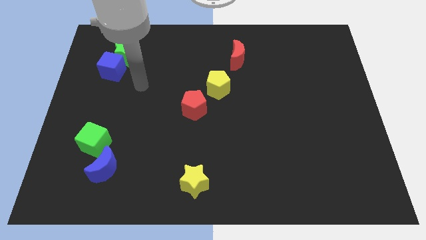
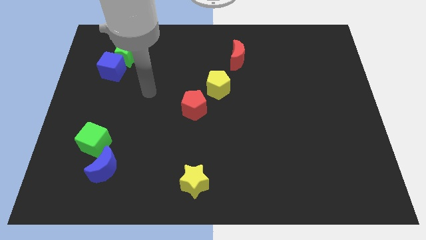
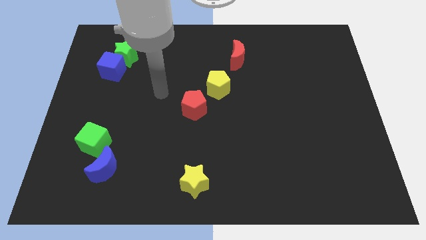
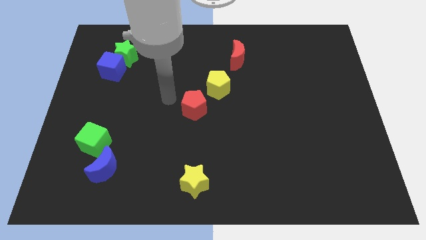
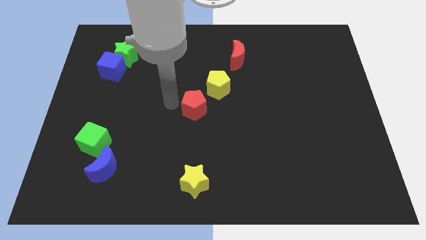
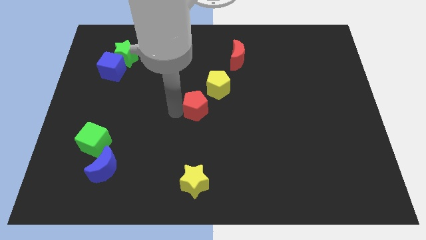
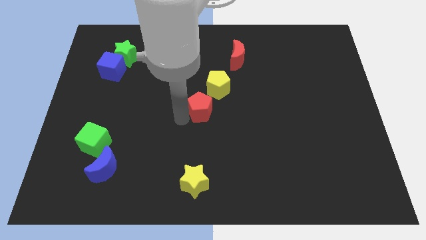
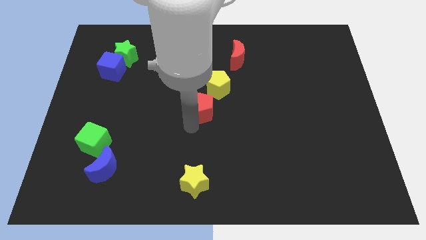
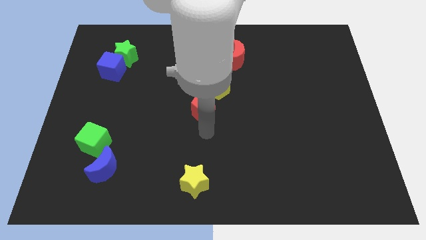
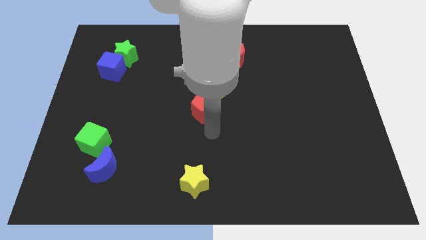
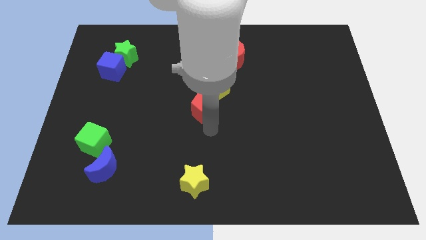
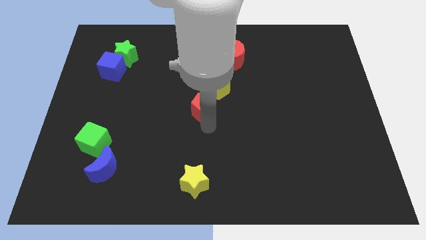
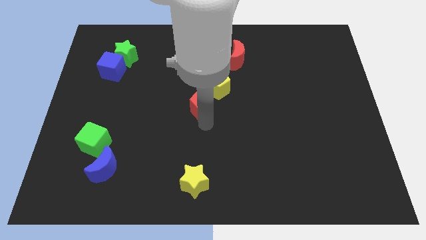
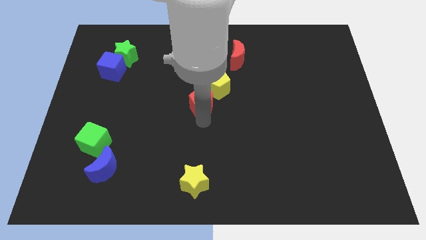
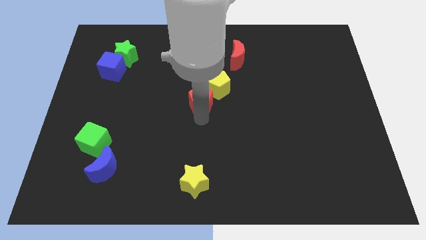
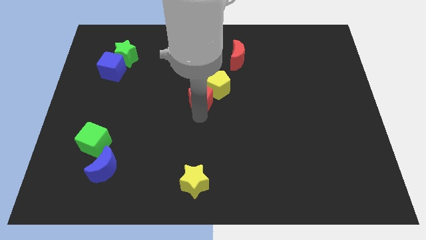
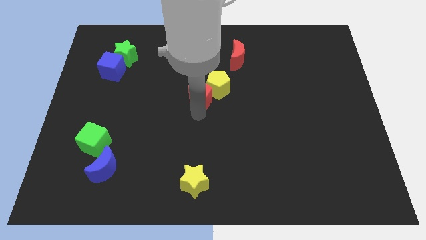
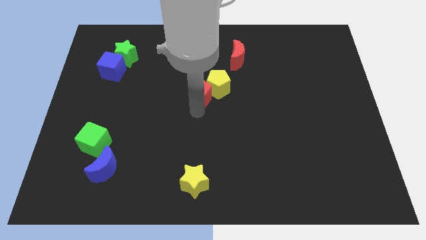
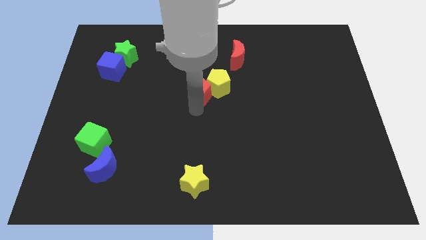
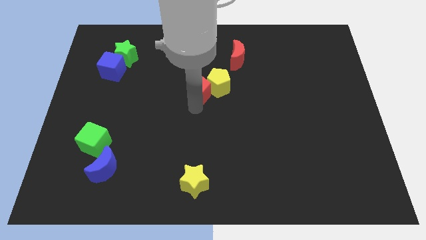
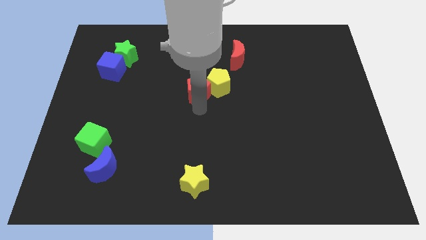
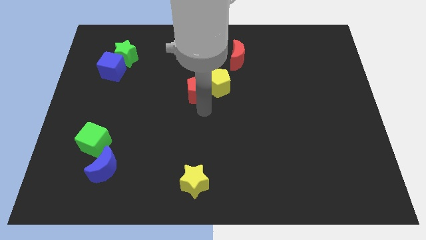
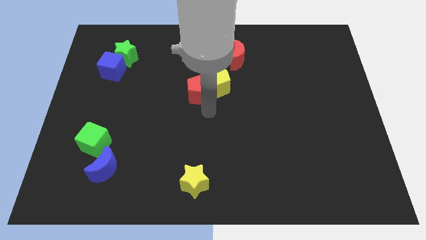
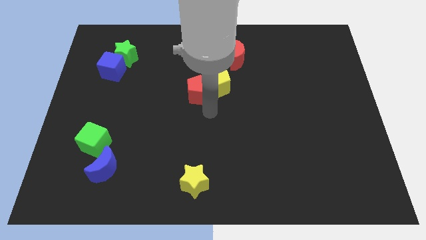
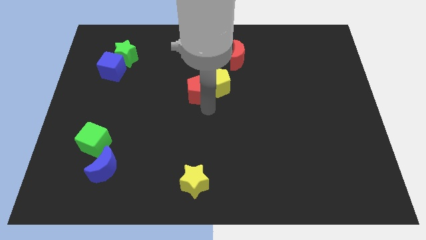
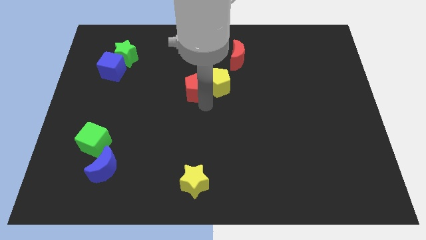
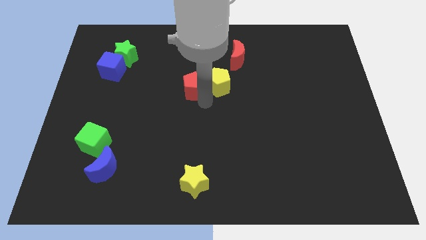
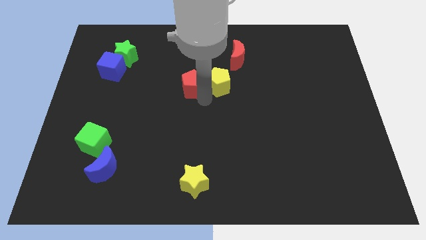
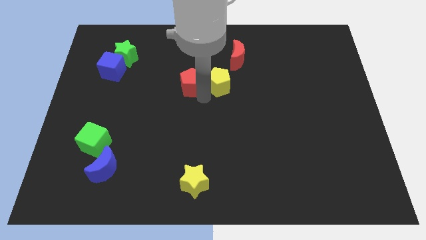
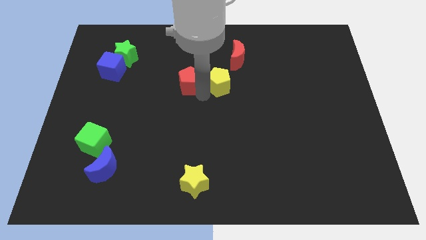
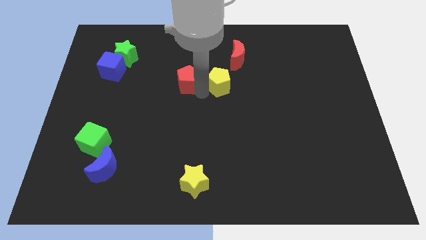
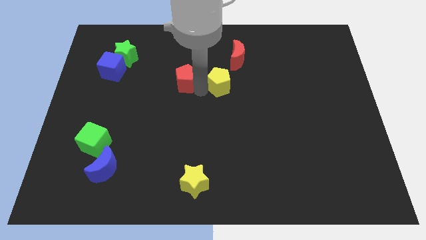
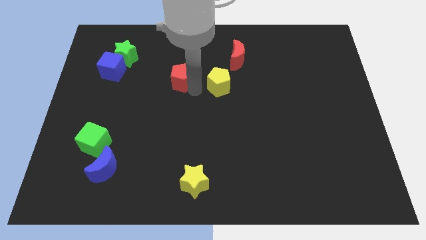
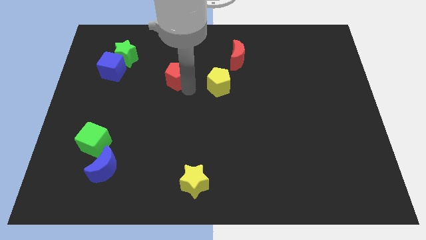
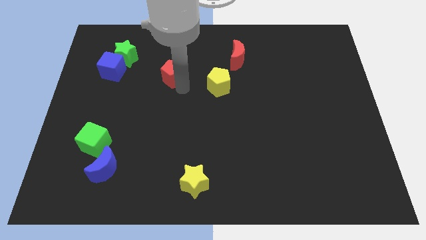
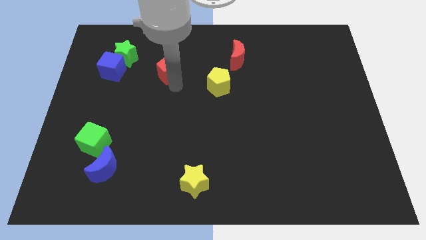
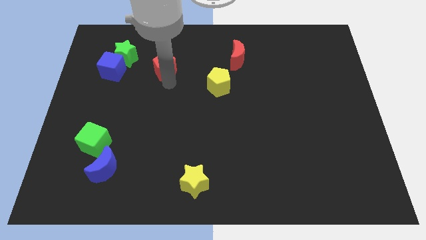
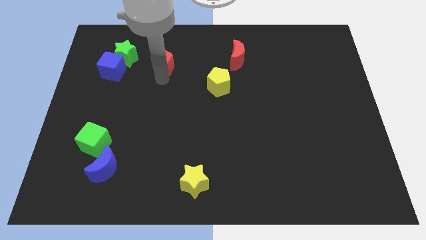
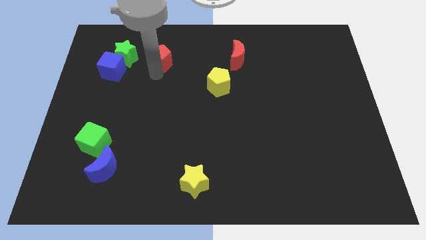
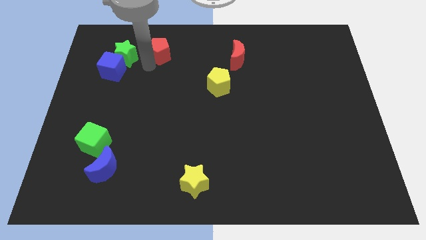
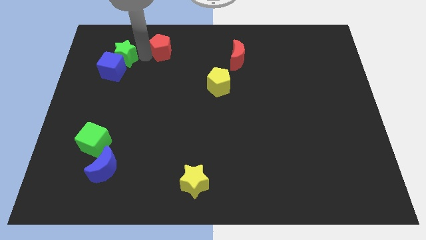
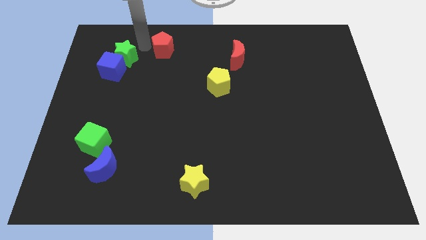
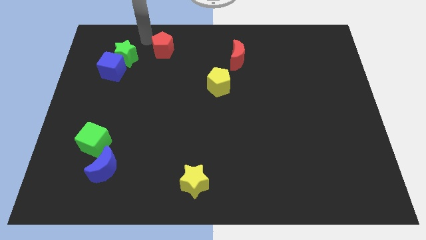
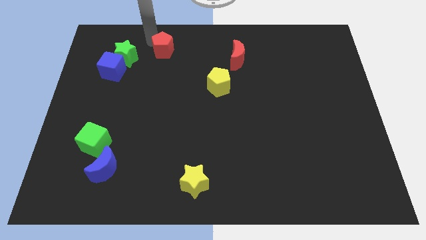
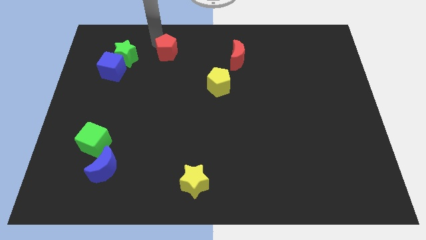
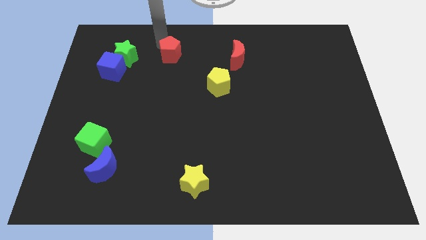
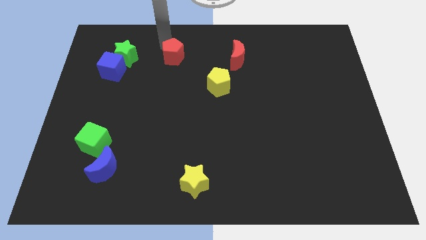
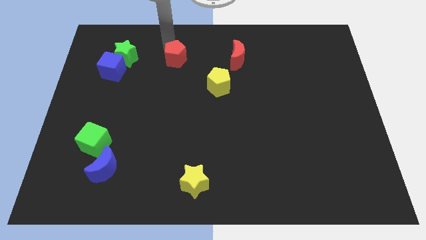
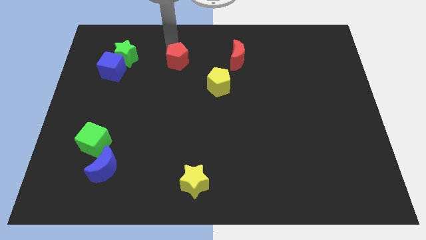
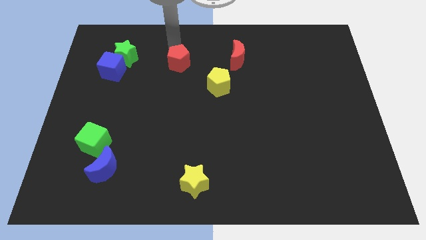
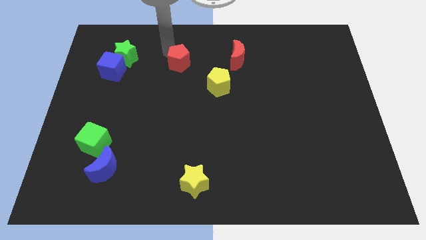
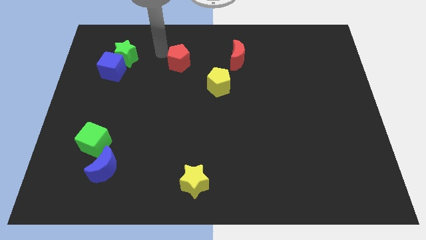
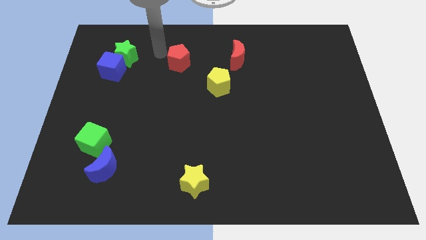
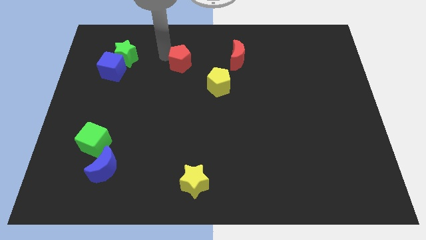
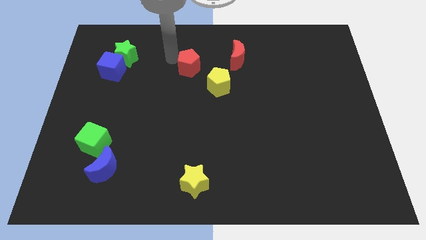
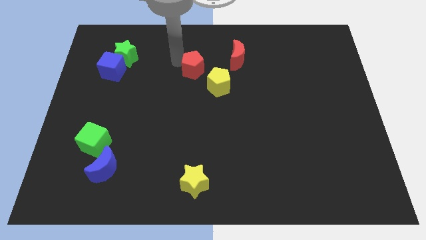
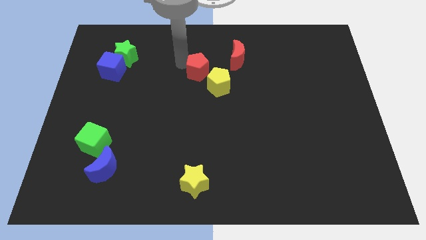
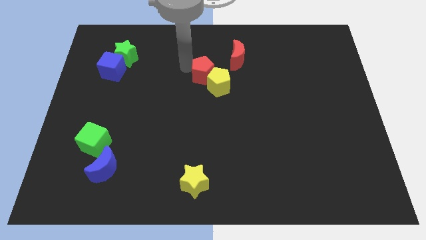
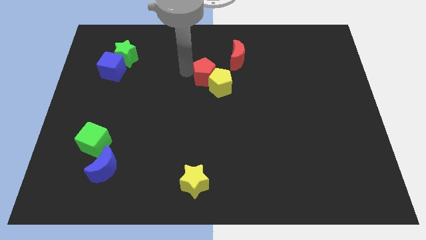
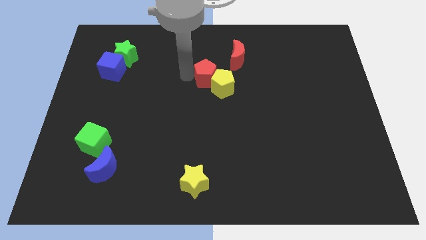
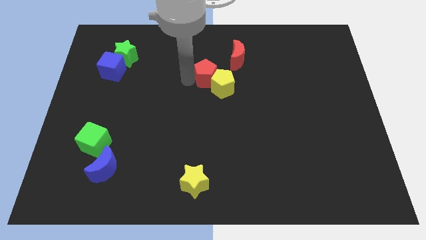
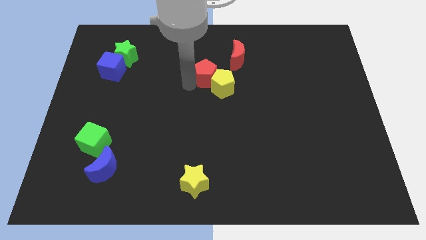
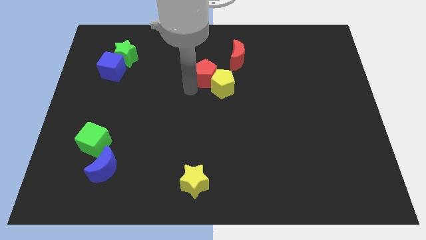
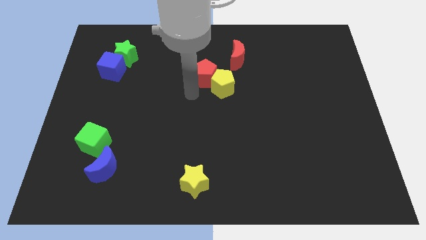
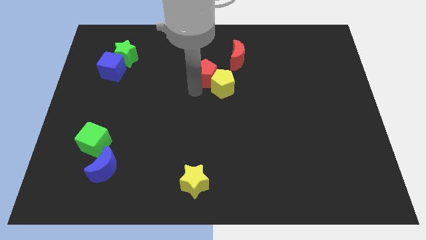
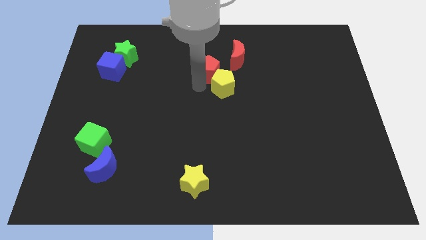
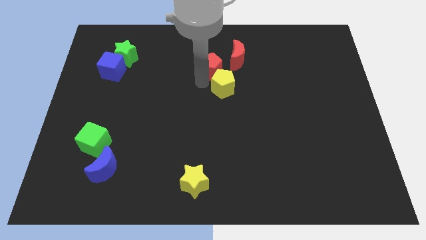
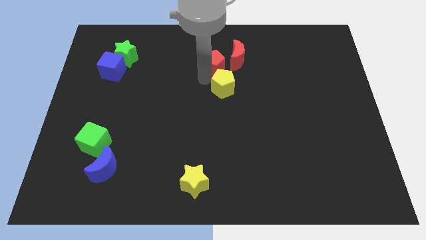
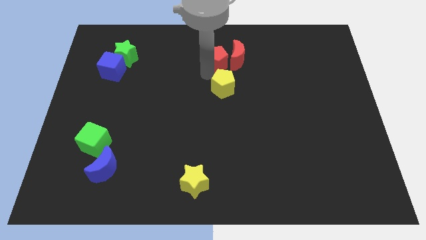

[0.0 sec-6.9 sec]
push the red pentagon to the red moon
